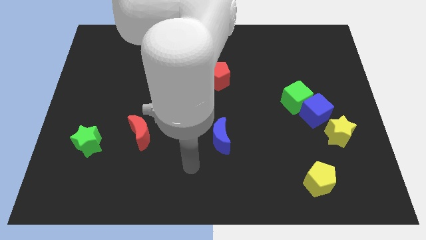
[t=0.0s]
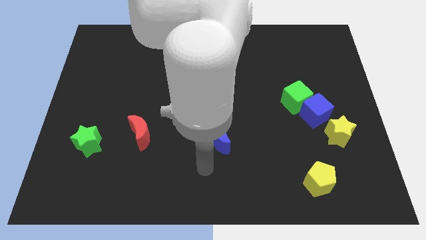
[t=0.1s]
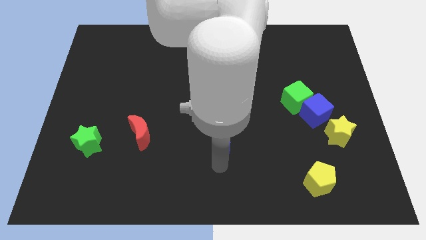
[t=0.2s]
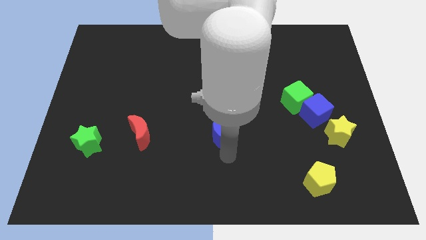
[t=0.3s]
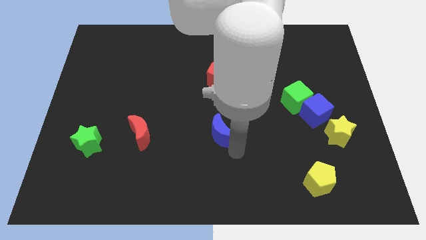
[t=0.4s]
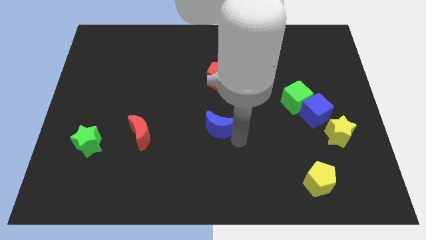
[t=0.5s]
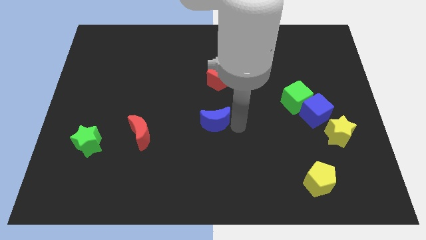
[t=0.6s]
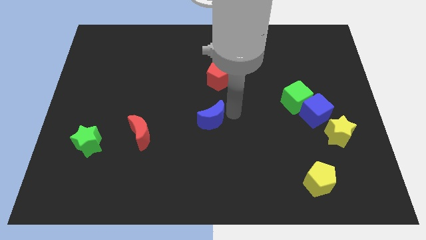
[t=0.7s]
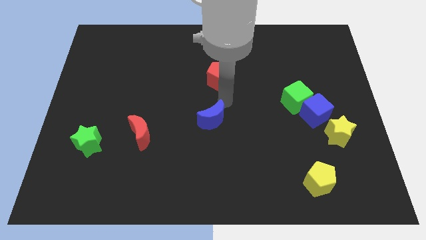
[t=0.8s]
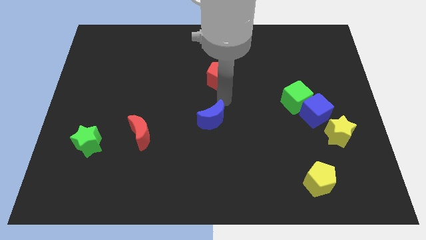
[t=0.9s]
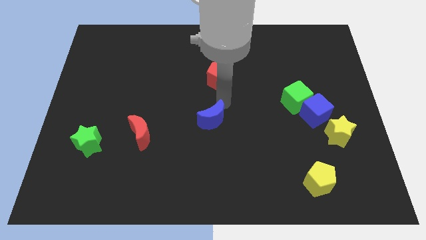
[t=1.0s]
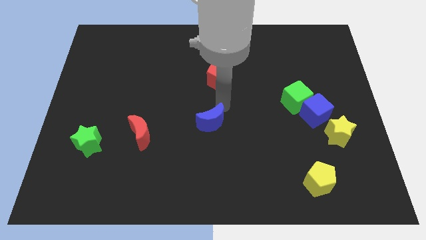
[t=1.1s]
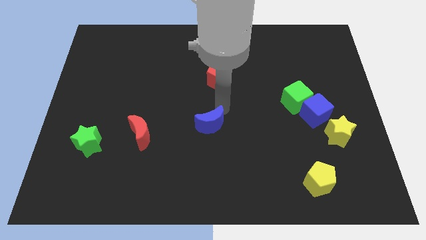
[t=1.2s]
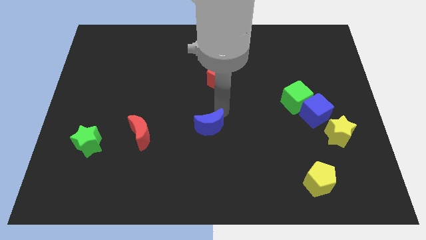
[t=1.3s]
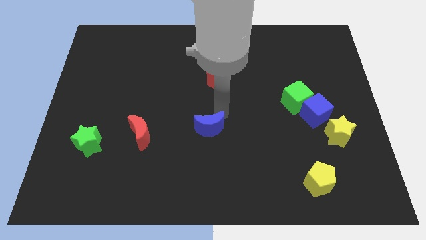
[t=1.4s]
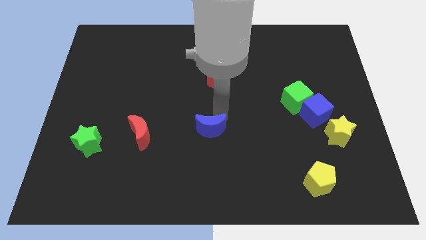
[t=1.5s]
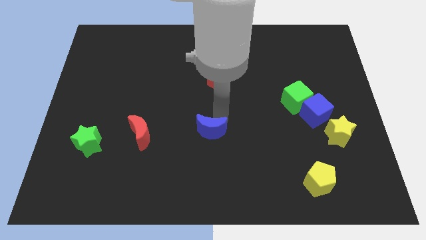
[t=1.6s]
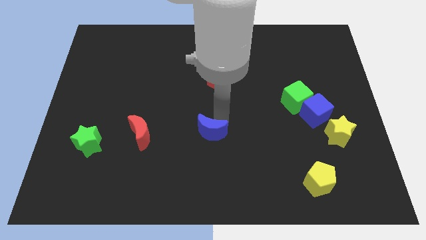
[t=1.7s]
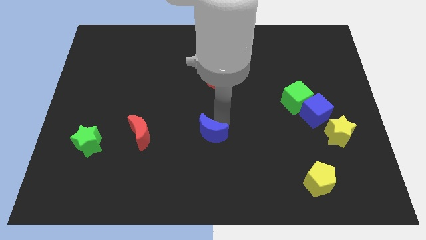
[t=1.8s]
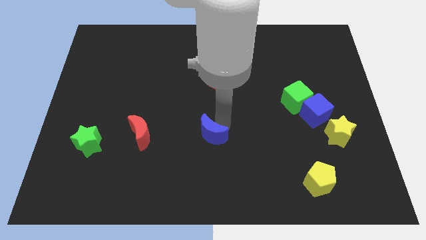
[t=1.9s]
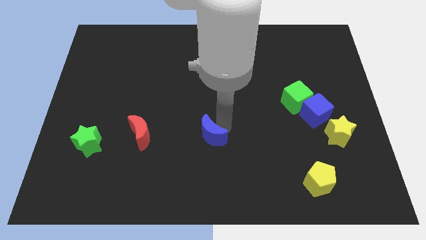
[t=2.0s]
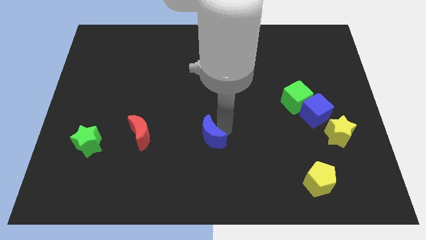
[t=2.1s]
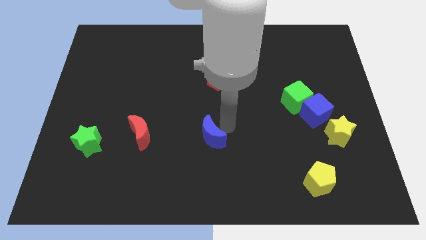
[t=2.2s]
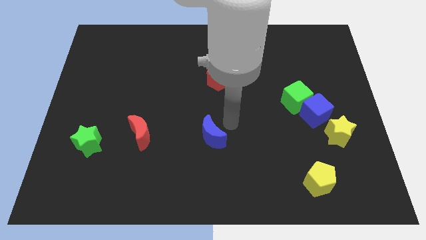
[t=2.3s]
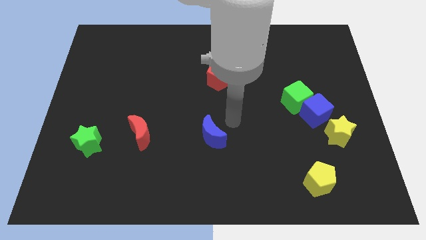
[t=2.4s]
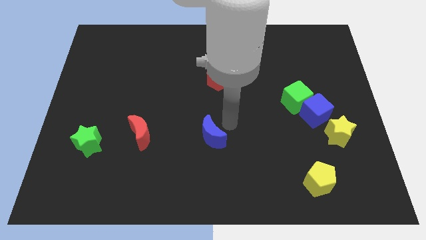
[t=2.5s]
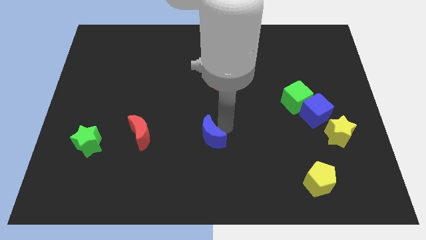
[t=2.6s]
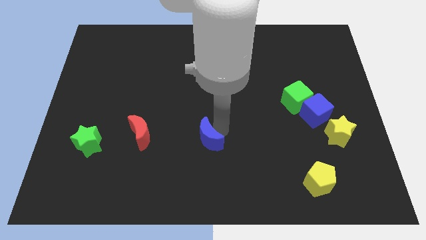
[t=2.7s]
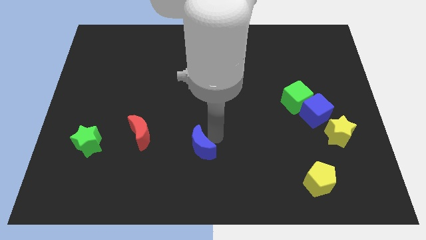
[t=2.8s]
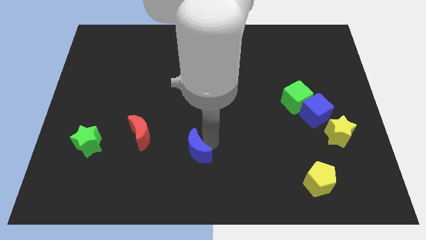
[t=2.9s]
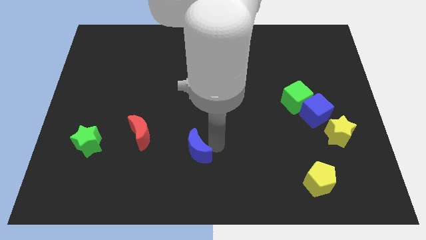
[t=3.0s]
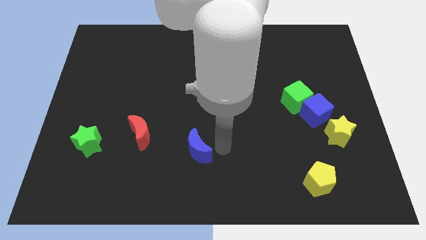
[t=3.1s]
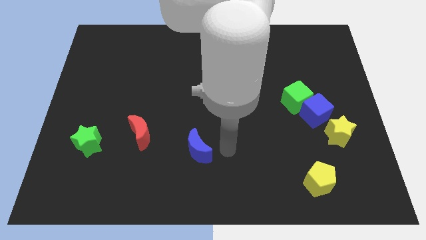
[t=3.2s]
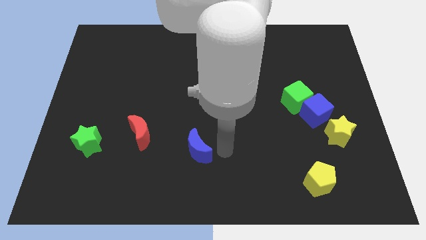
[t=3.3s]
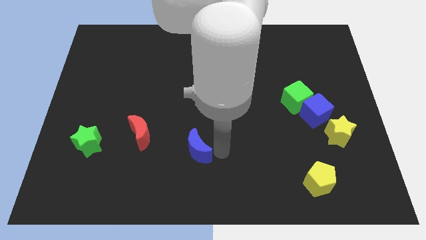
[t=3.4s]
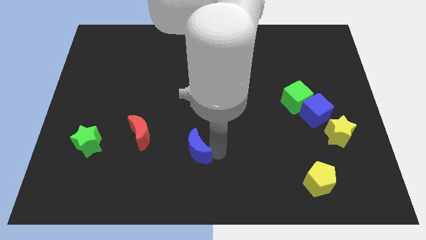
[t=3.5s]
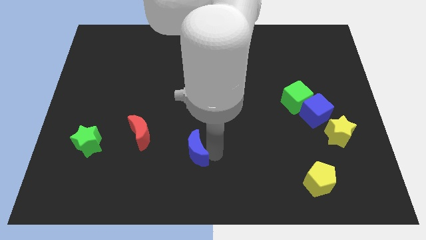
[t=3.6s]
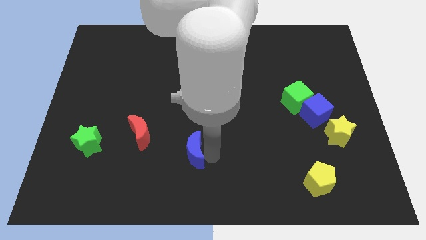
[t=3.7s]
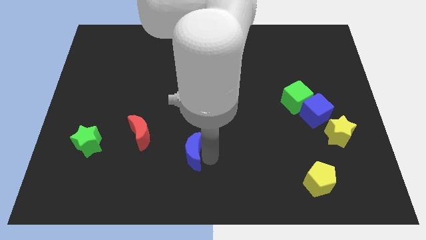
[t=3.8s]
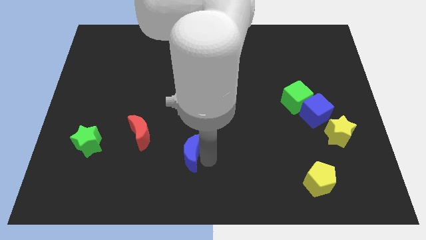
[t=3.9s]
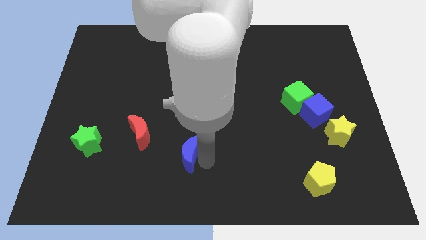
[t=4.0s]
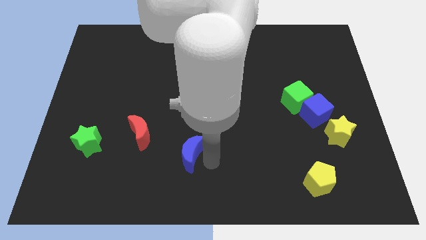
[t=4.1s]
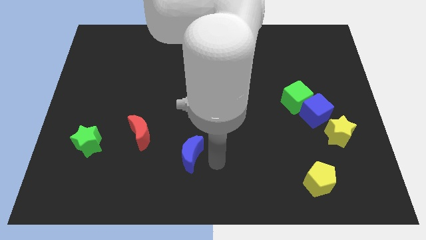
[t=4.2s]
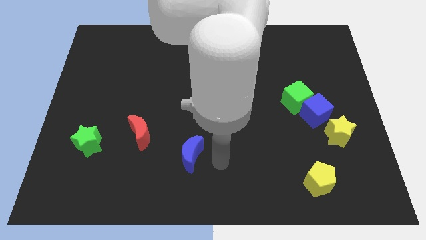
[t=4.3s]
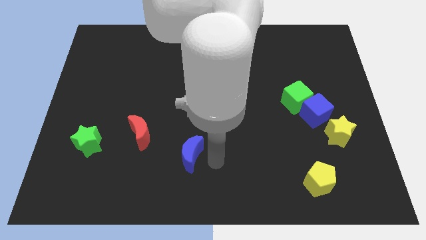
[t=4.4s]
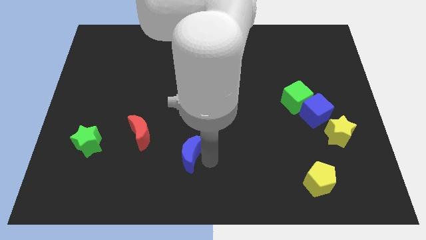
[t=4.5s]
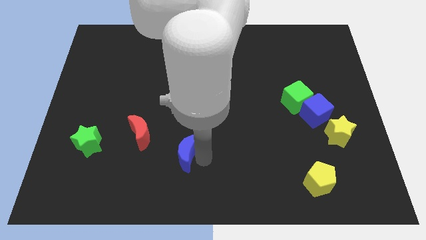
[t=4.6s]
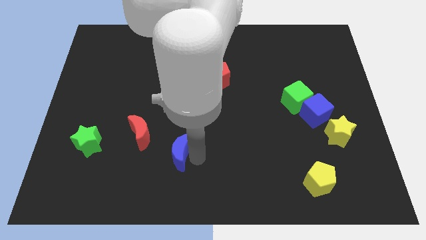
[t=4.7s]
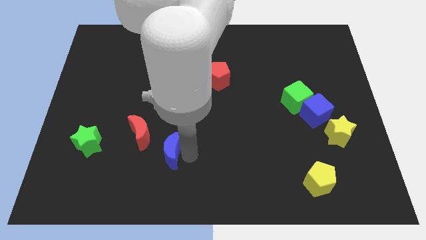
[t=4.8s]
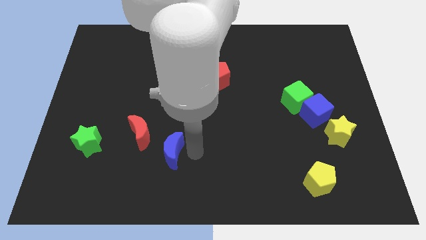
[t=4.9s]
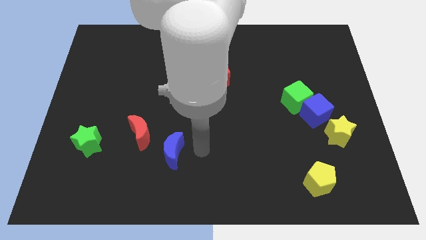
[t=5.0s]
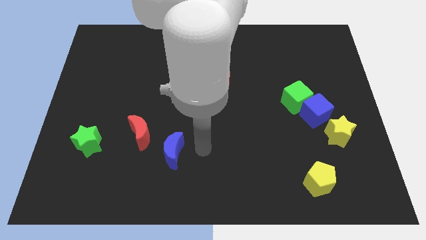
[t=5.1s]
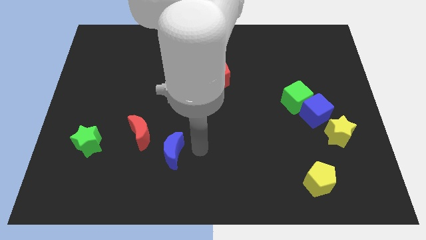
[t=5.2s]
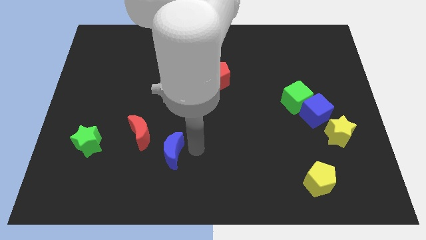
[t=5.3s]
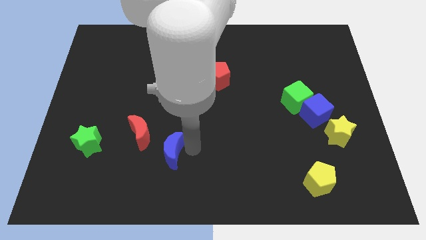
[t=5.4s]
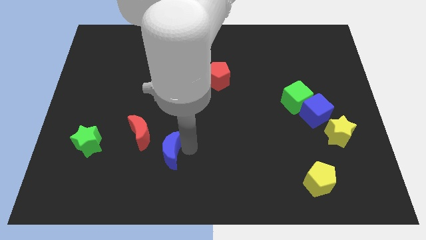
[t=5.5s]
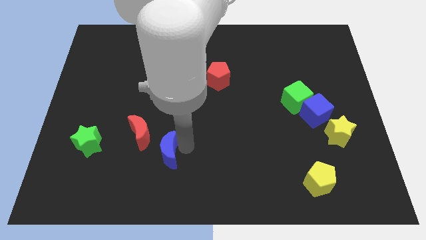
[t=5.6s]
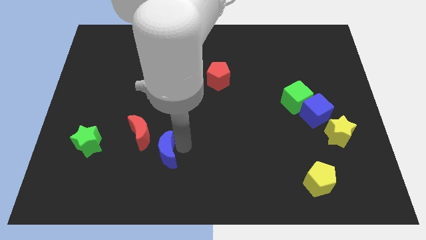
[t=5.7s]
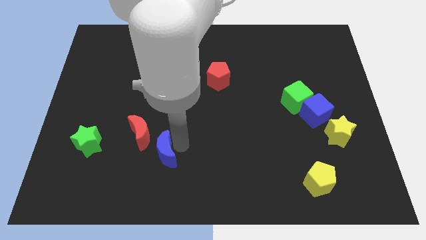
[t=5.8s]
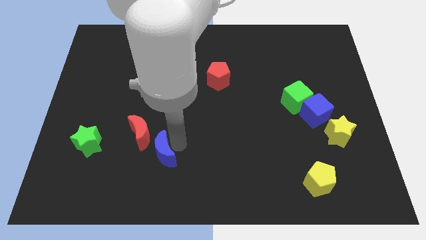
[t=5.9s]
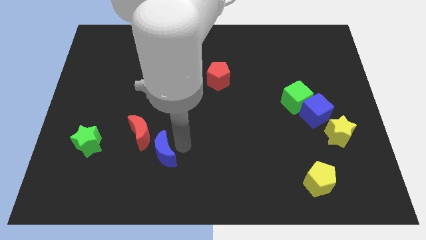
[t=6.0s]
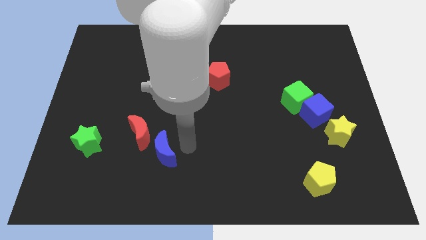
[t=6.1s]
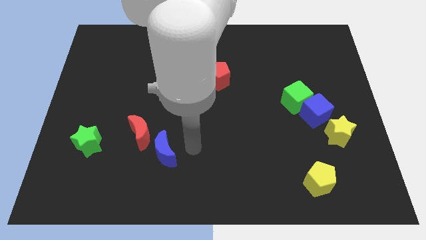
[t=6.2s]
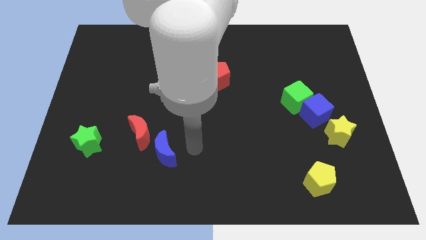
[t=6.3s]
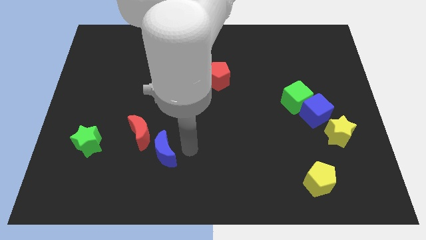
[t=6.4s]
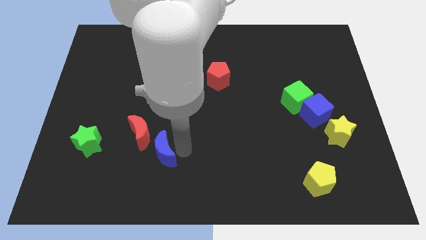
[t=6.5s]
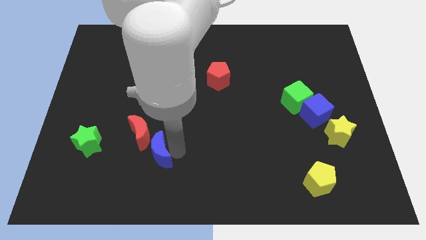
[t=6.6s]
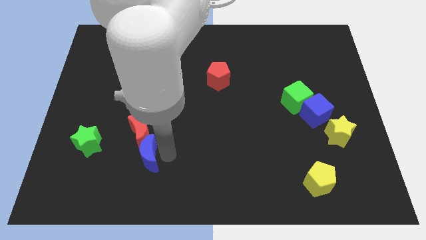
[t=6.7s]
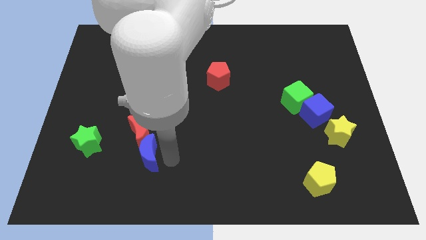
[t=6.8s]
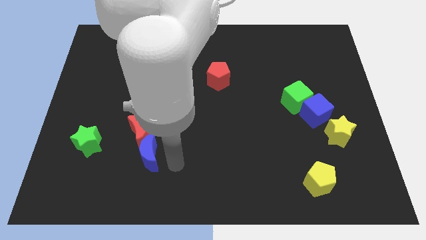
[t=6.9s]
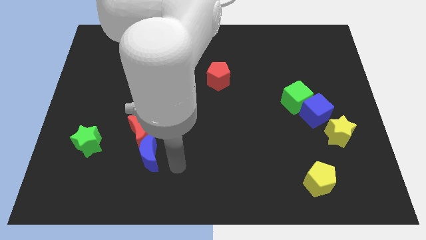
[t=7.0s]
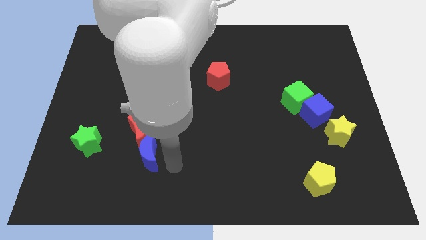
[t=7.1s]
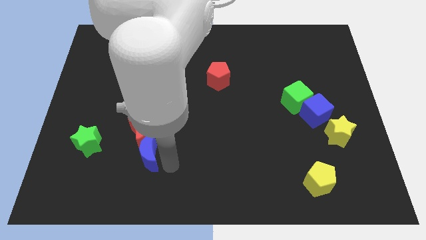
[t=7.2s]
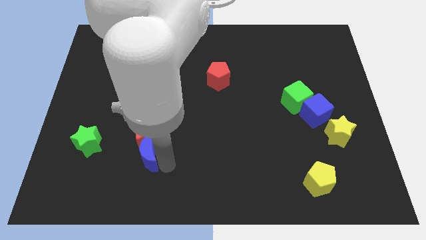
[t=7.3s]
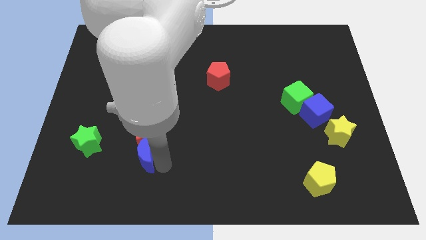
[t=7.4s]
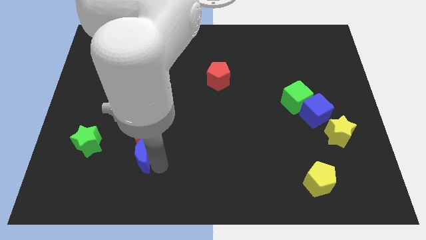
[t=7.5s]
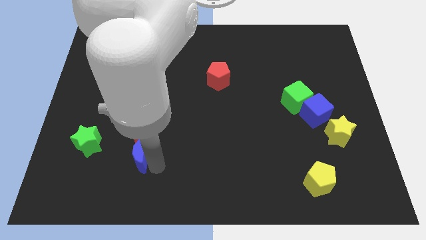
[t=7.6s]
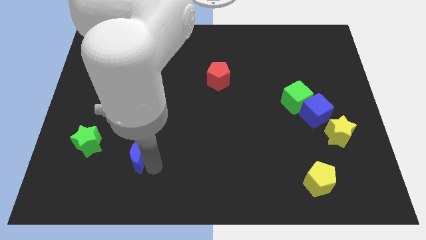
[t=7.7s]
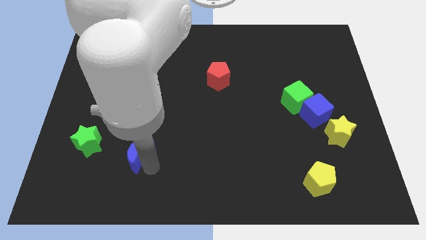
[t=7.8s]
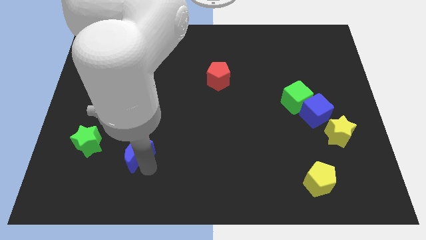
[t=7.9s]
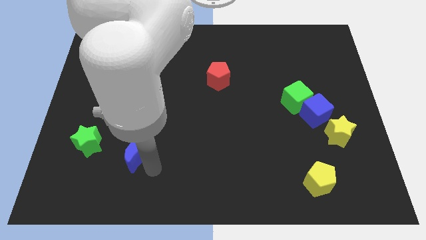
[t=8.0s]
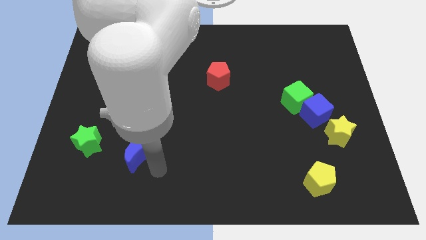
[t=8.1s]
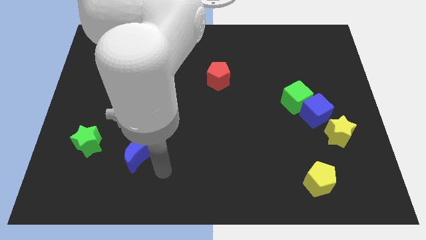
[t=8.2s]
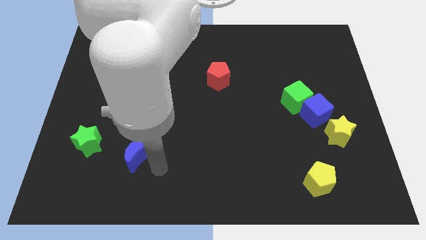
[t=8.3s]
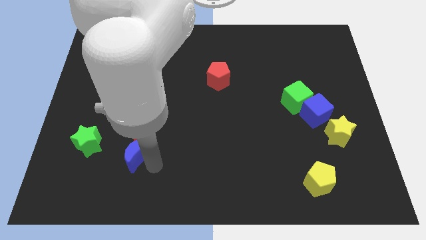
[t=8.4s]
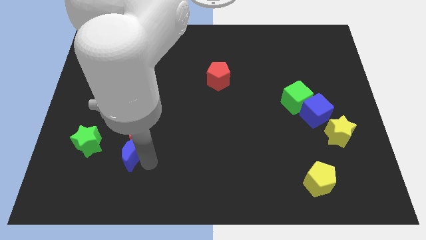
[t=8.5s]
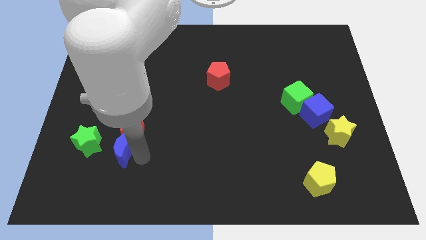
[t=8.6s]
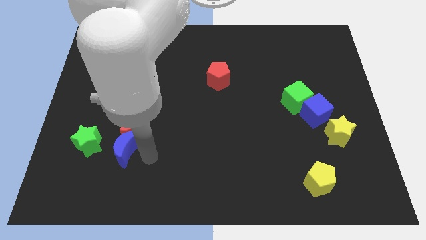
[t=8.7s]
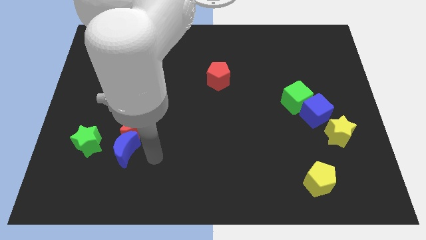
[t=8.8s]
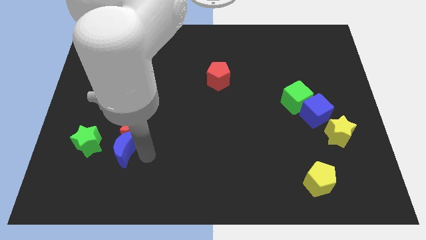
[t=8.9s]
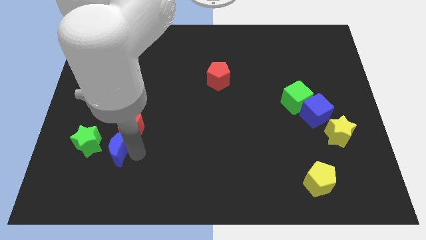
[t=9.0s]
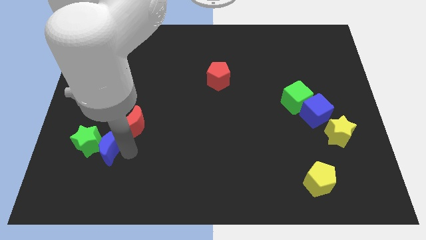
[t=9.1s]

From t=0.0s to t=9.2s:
push the blue moon to the green star
